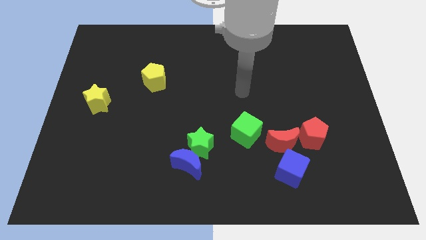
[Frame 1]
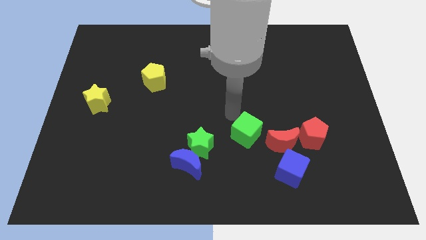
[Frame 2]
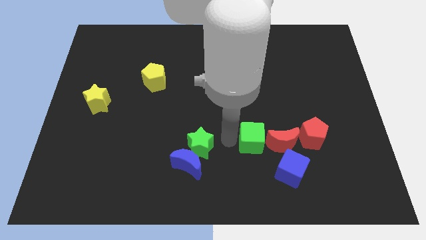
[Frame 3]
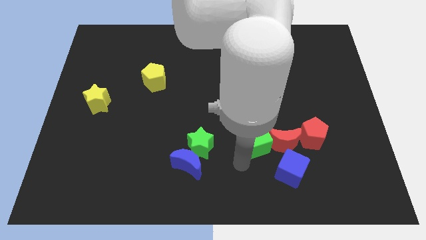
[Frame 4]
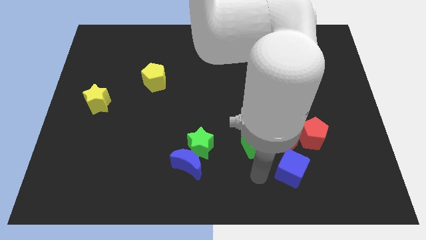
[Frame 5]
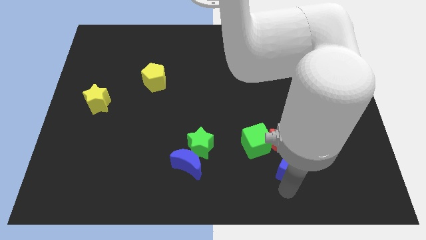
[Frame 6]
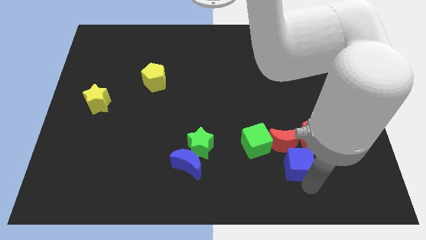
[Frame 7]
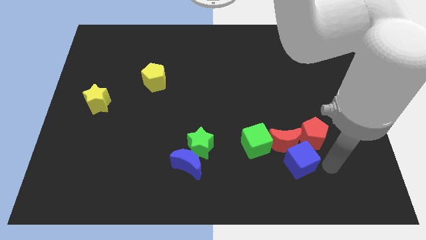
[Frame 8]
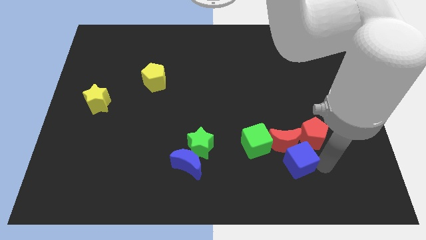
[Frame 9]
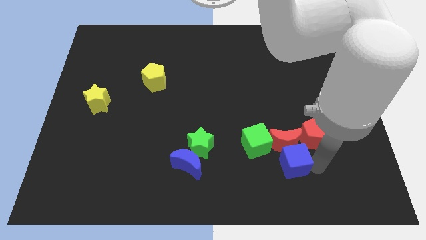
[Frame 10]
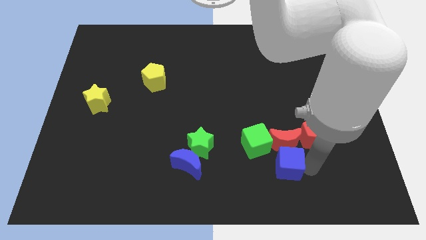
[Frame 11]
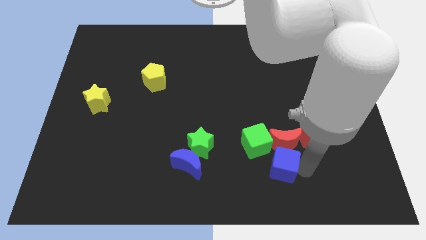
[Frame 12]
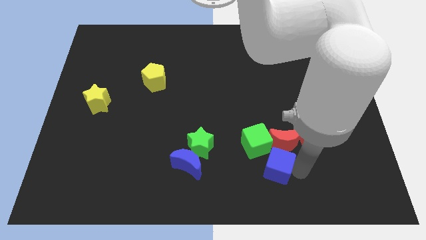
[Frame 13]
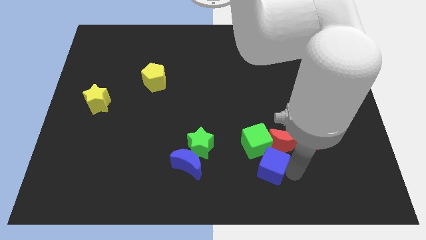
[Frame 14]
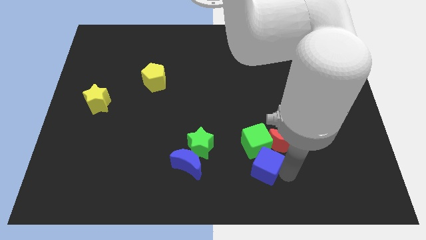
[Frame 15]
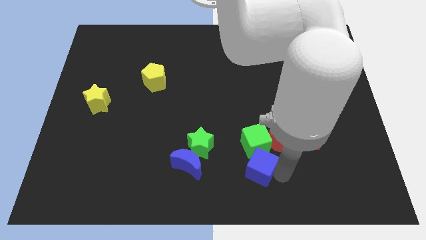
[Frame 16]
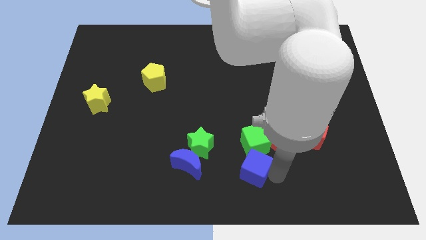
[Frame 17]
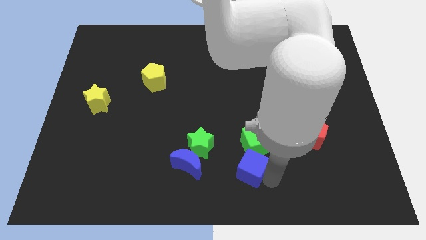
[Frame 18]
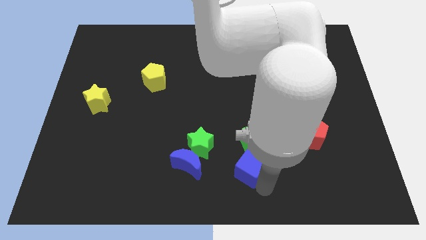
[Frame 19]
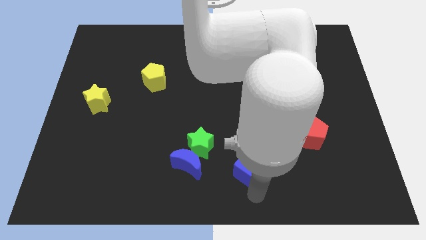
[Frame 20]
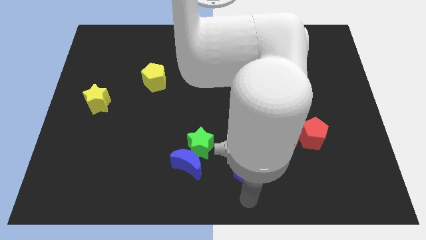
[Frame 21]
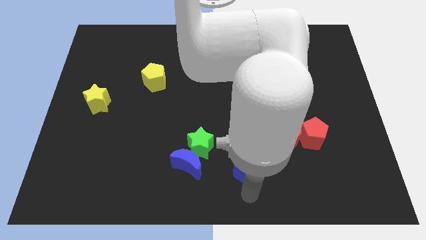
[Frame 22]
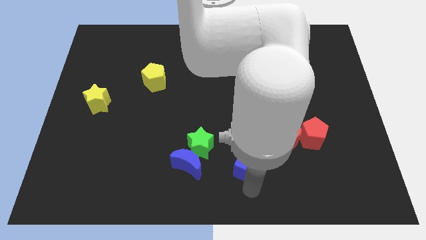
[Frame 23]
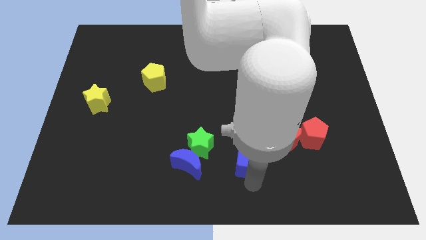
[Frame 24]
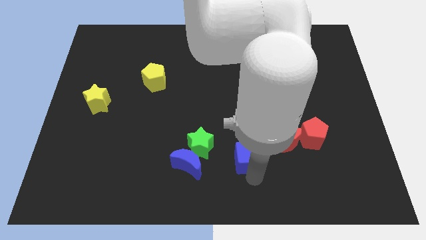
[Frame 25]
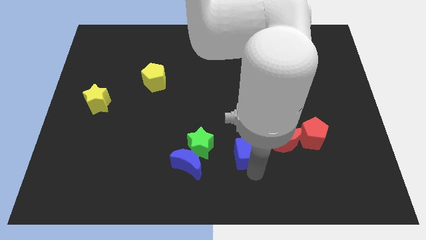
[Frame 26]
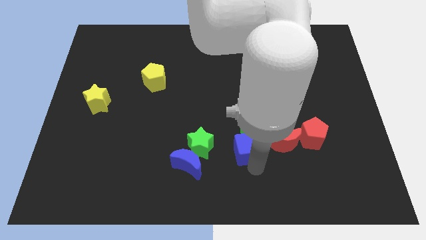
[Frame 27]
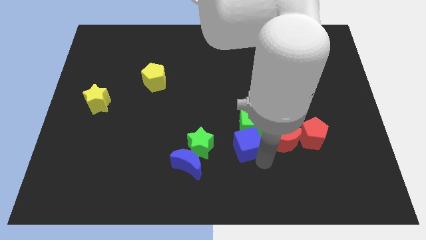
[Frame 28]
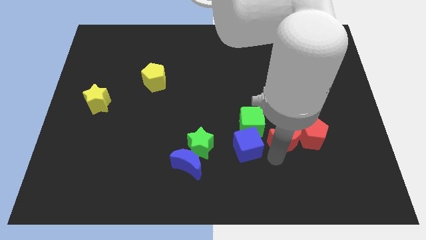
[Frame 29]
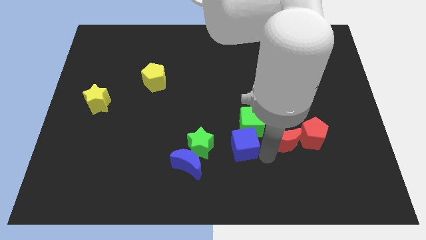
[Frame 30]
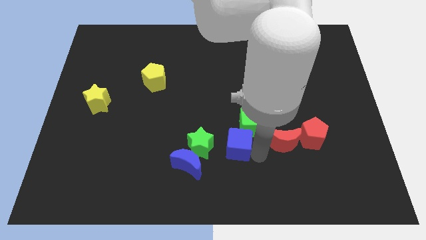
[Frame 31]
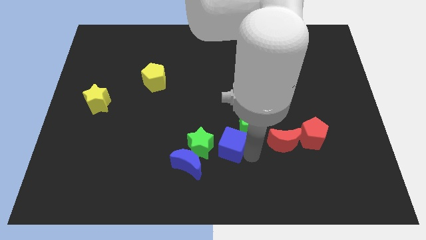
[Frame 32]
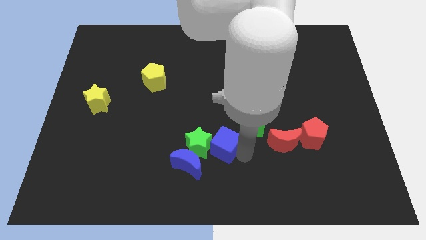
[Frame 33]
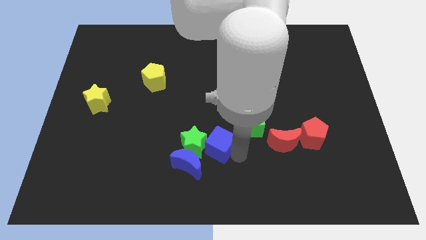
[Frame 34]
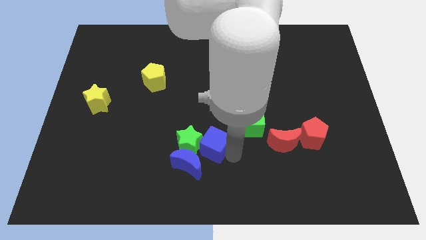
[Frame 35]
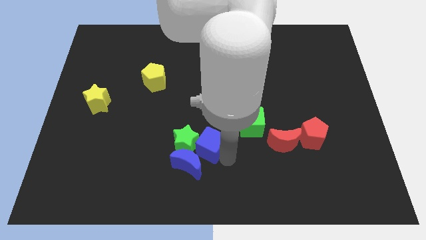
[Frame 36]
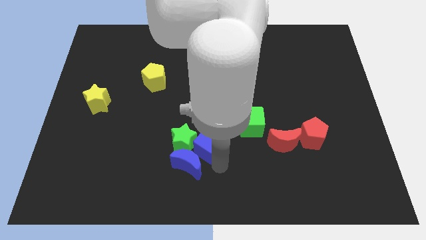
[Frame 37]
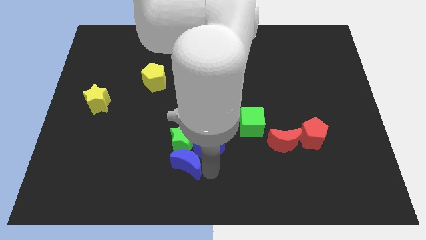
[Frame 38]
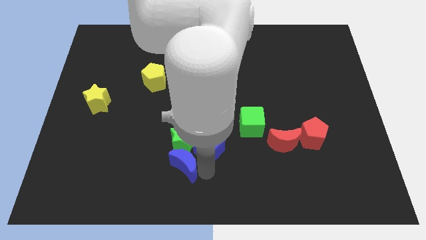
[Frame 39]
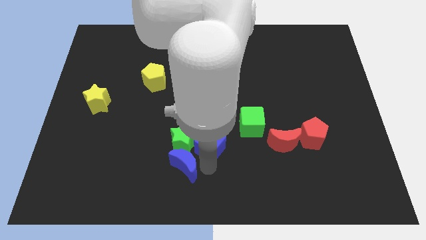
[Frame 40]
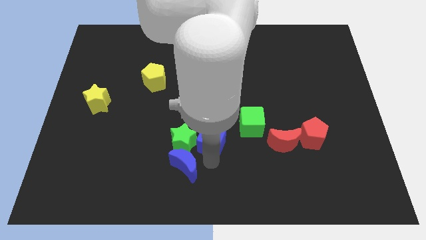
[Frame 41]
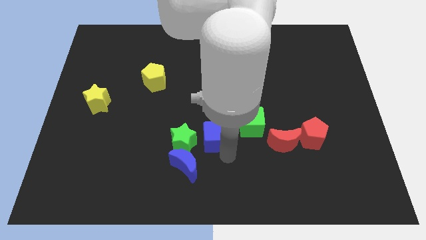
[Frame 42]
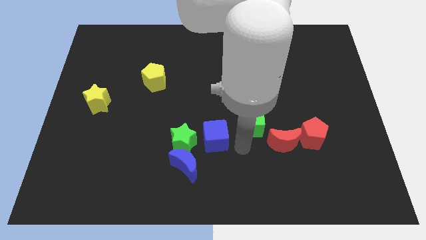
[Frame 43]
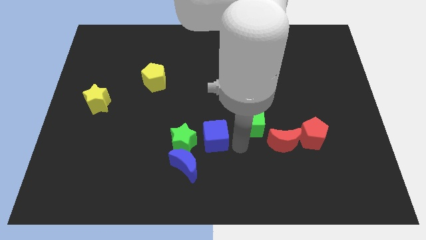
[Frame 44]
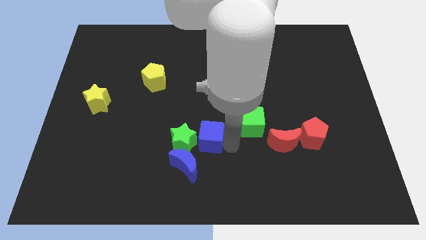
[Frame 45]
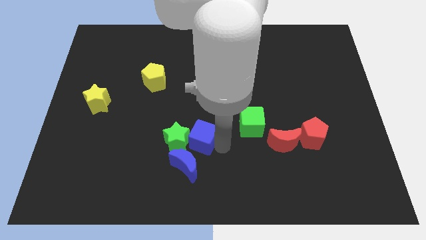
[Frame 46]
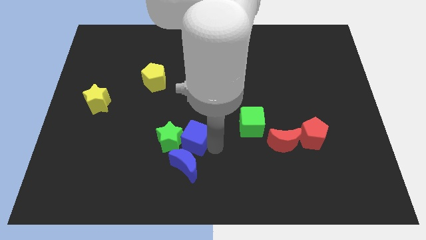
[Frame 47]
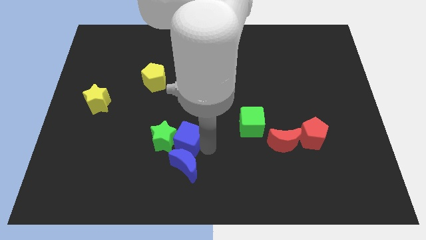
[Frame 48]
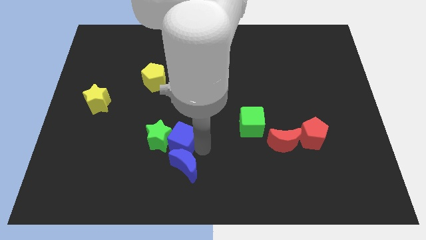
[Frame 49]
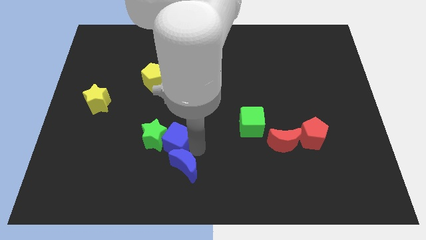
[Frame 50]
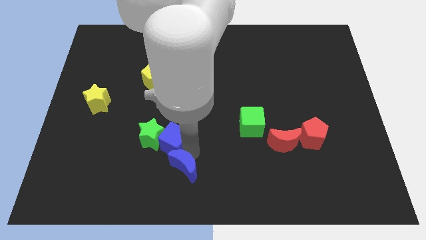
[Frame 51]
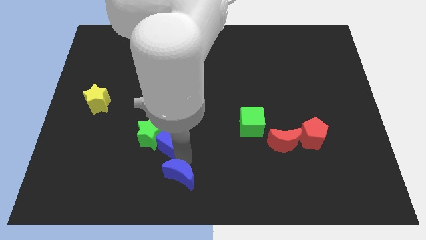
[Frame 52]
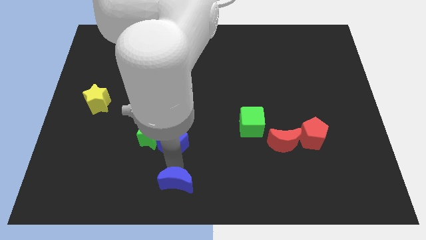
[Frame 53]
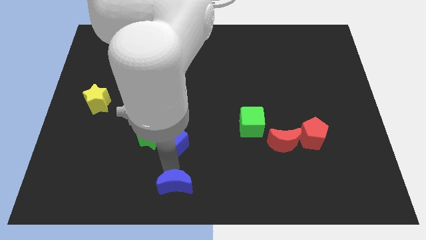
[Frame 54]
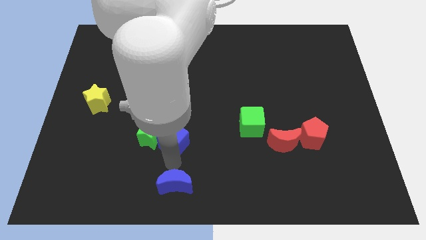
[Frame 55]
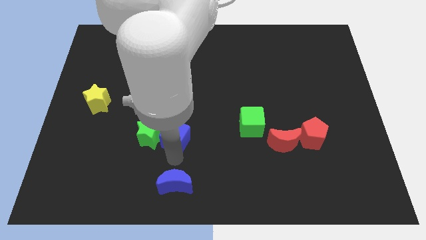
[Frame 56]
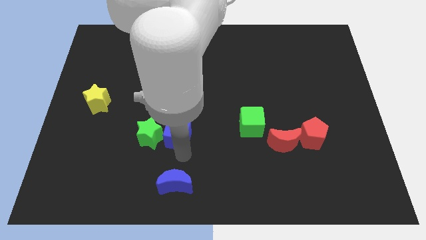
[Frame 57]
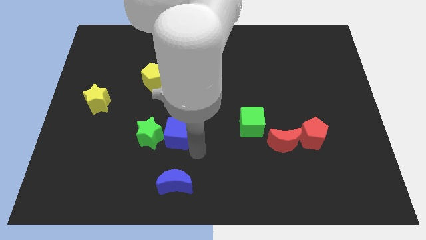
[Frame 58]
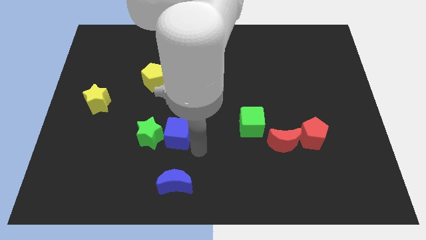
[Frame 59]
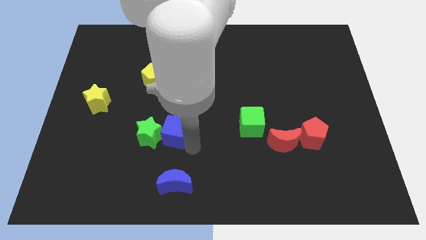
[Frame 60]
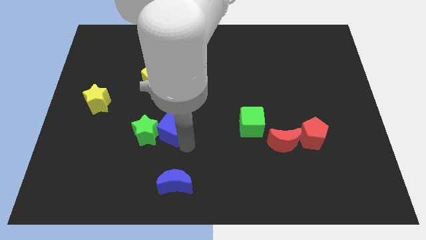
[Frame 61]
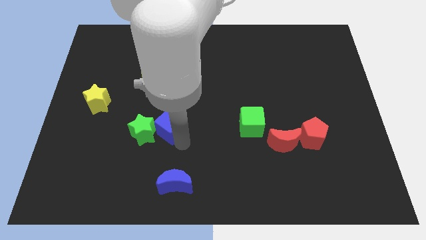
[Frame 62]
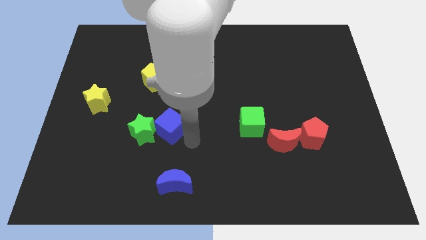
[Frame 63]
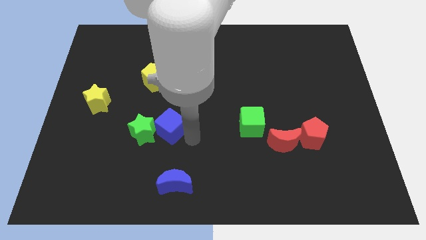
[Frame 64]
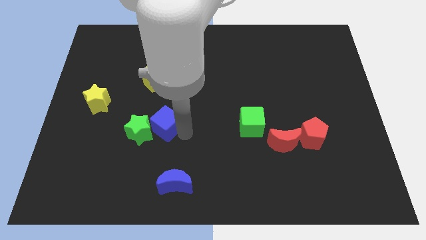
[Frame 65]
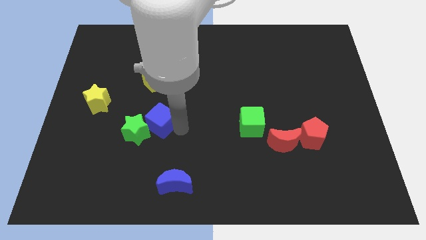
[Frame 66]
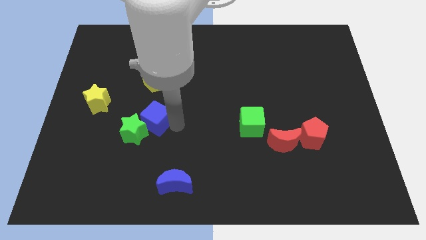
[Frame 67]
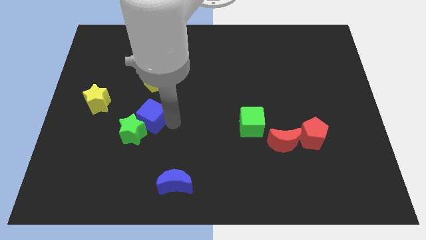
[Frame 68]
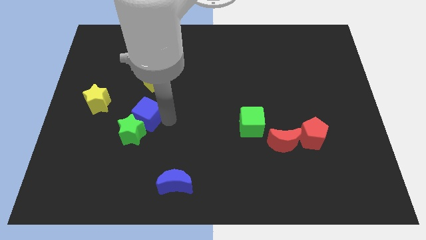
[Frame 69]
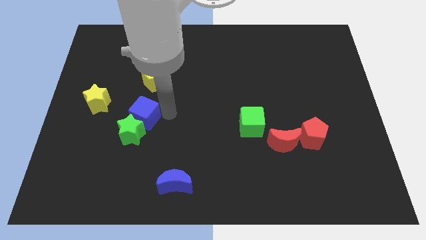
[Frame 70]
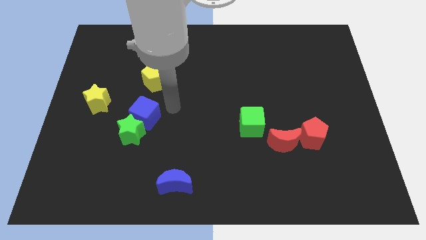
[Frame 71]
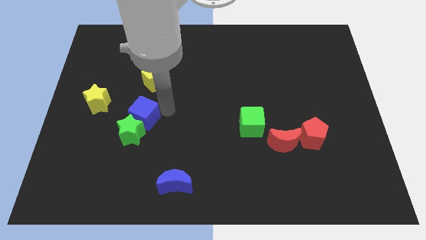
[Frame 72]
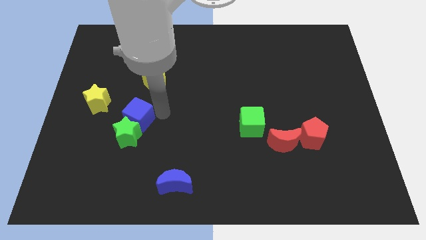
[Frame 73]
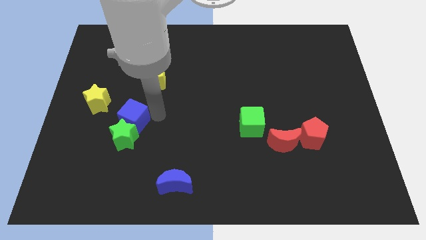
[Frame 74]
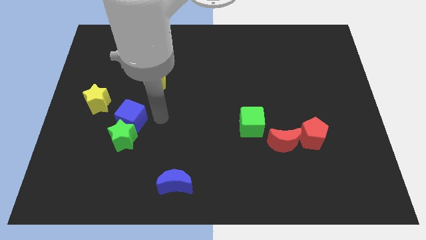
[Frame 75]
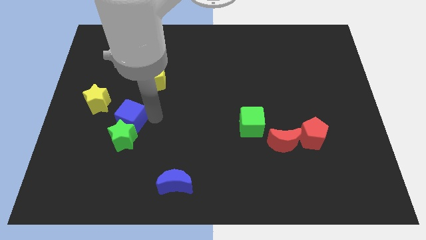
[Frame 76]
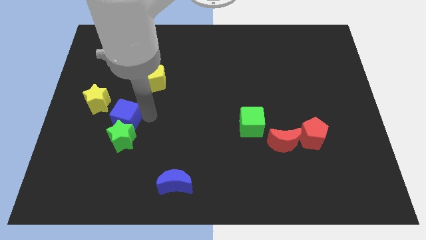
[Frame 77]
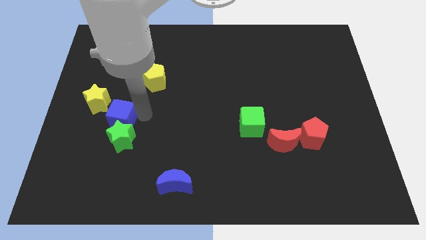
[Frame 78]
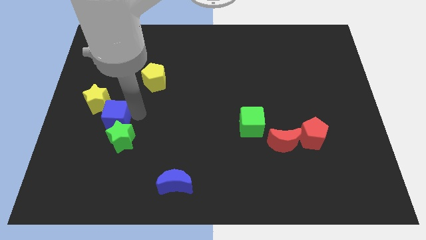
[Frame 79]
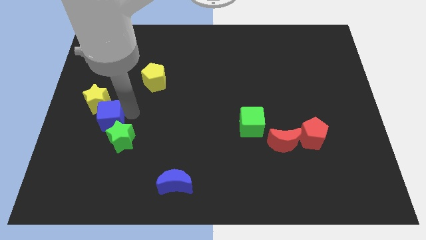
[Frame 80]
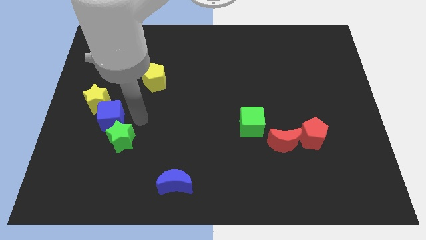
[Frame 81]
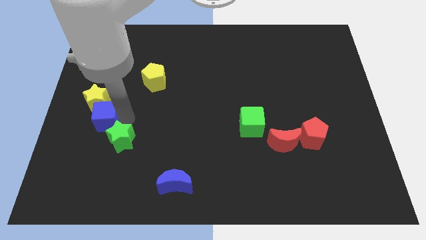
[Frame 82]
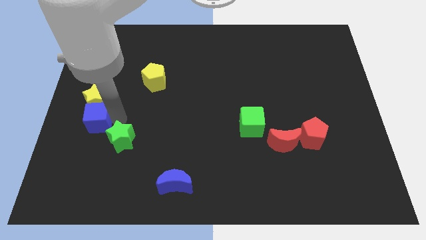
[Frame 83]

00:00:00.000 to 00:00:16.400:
move the blue cube to the center left
